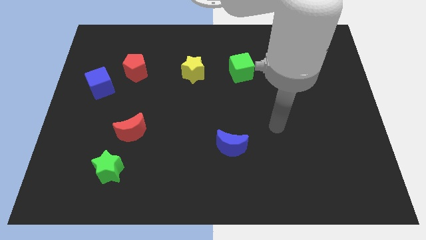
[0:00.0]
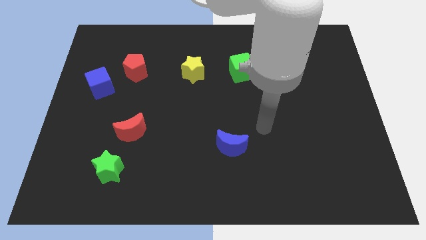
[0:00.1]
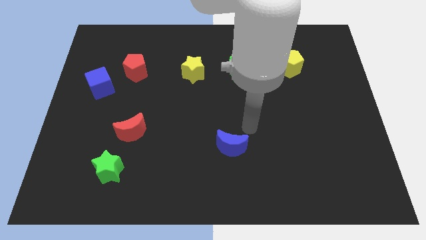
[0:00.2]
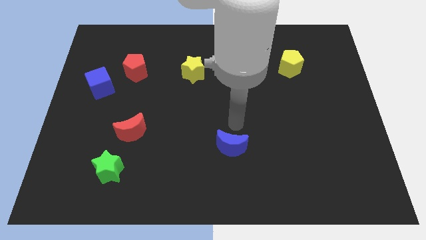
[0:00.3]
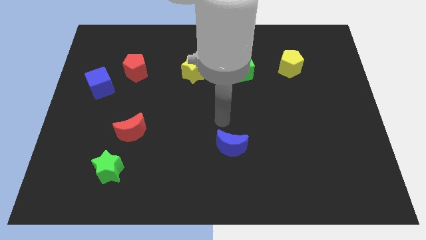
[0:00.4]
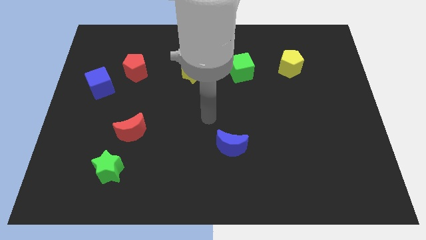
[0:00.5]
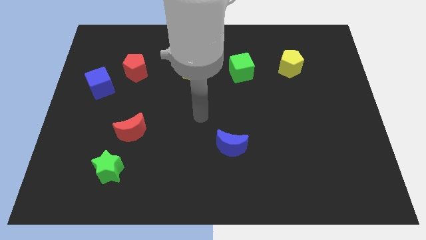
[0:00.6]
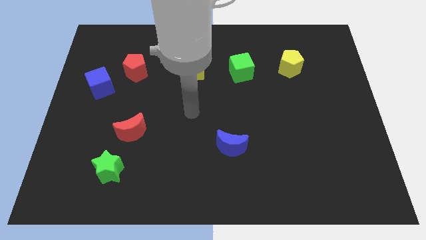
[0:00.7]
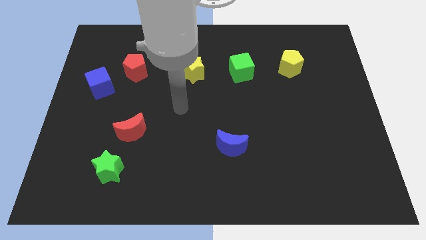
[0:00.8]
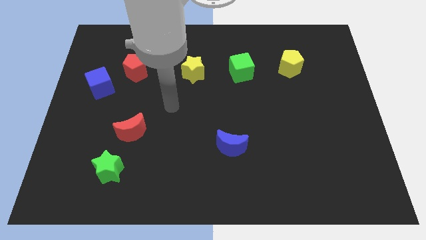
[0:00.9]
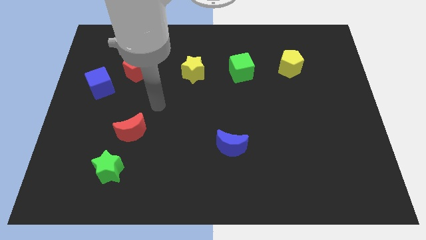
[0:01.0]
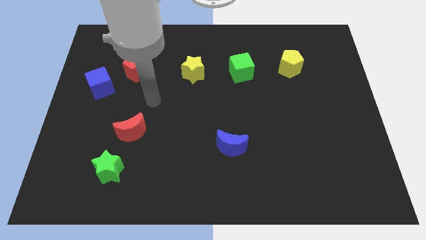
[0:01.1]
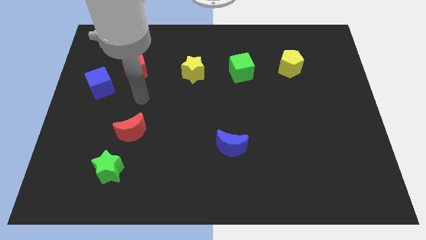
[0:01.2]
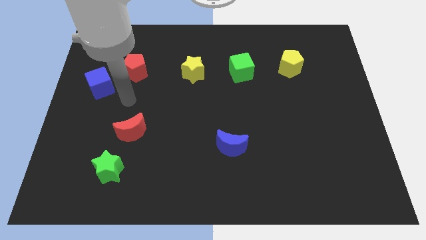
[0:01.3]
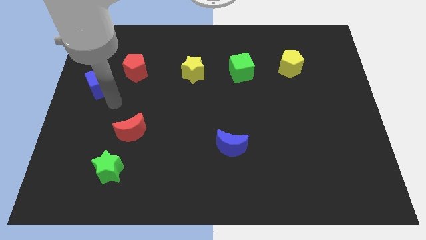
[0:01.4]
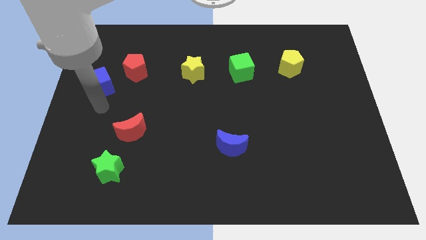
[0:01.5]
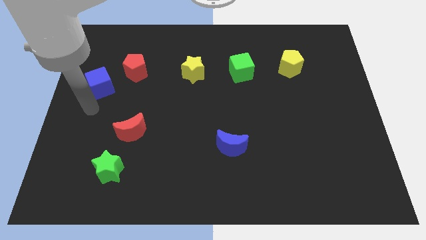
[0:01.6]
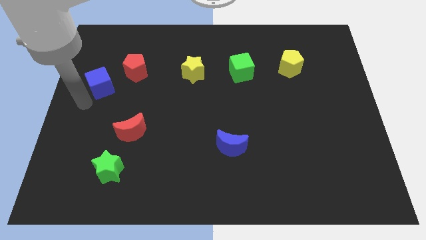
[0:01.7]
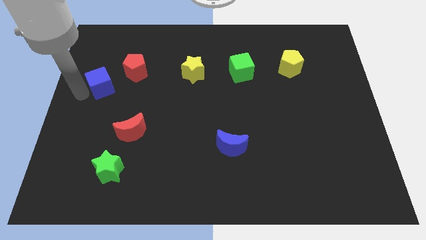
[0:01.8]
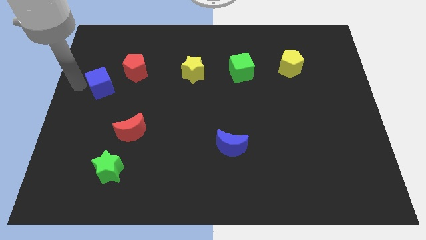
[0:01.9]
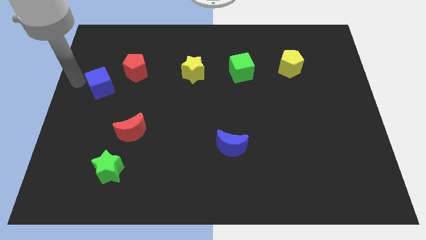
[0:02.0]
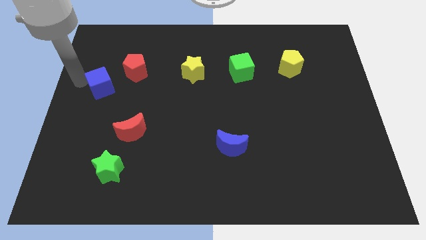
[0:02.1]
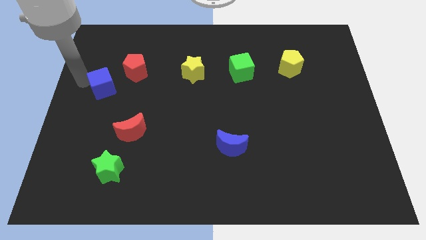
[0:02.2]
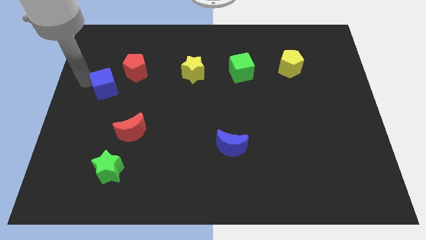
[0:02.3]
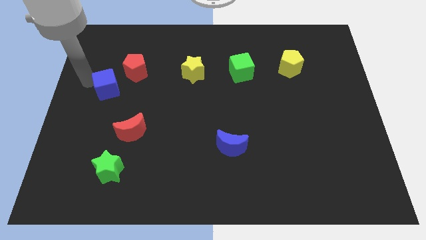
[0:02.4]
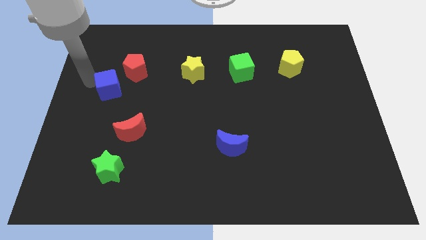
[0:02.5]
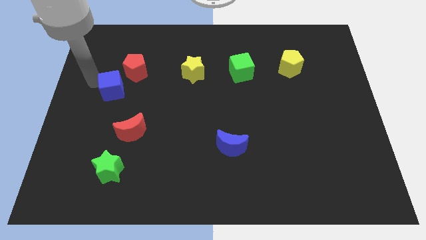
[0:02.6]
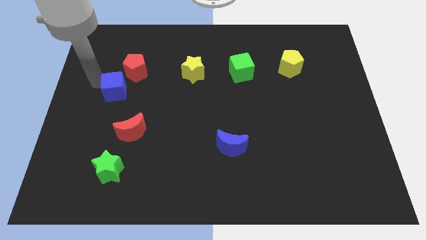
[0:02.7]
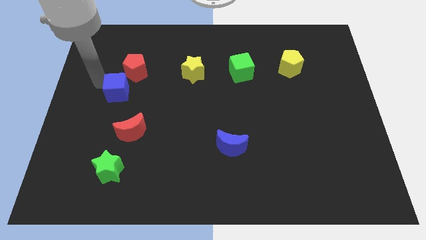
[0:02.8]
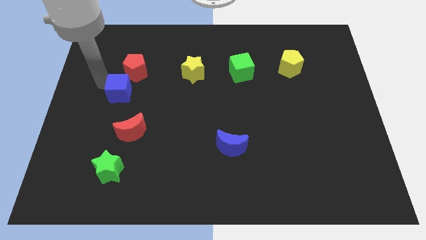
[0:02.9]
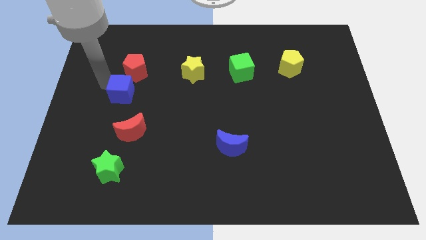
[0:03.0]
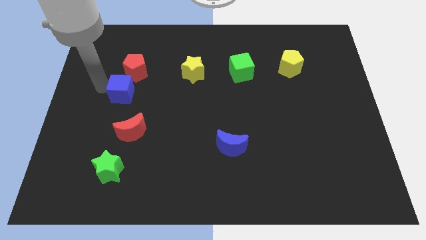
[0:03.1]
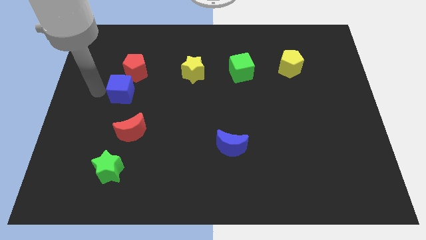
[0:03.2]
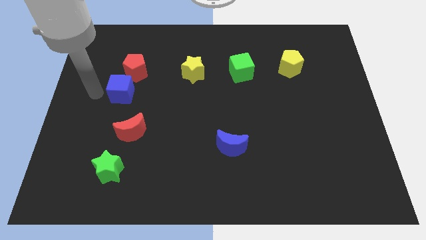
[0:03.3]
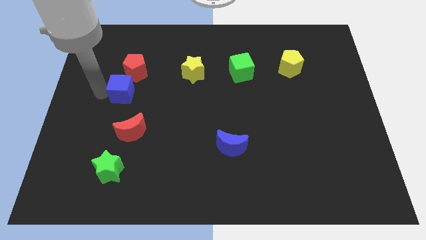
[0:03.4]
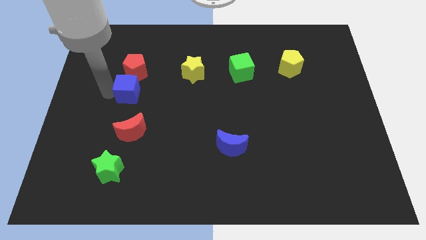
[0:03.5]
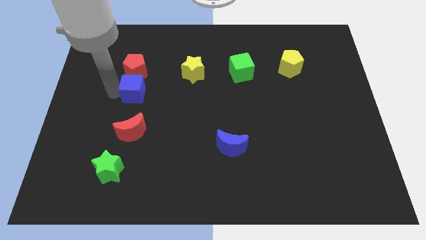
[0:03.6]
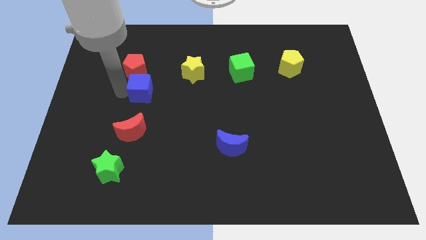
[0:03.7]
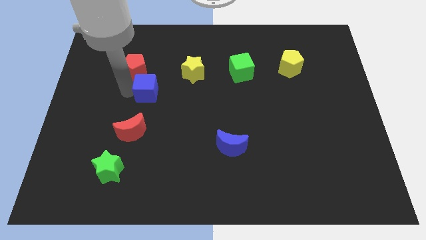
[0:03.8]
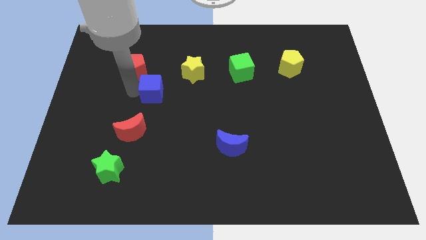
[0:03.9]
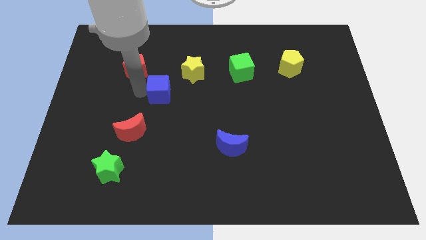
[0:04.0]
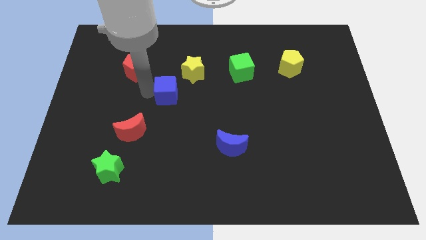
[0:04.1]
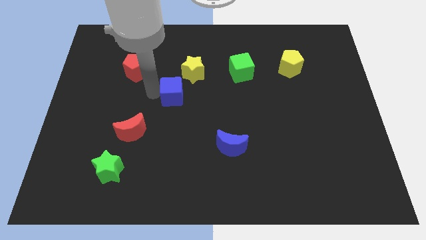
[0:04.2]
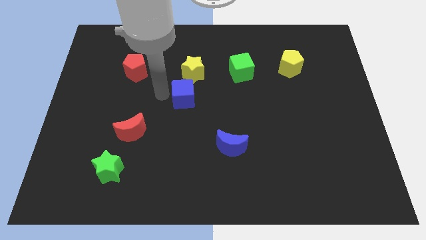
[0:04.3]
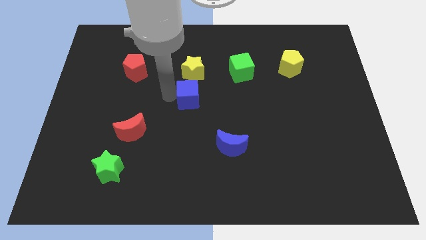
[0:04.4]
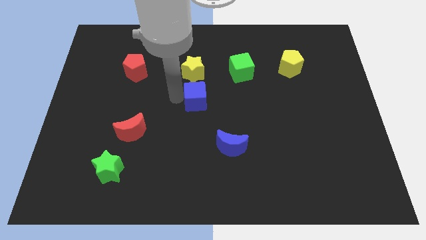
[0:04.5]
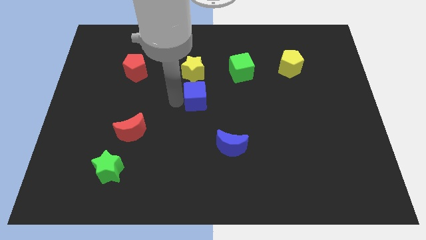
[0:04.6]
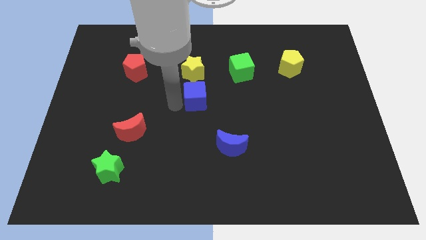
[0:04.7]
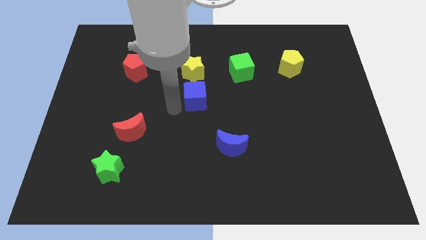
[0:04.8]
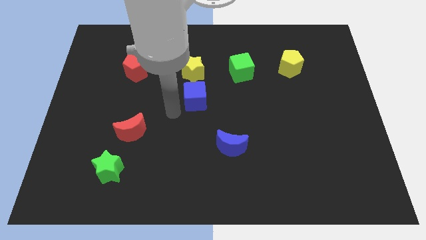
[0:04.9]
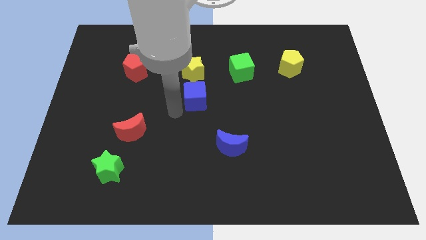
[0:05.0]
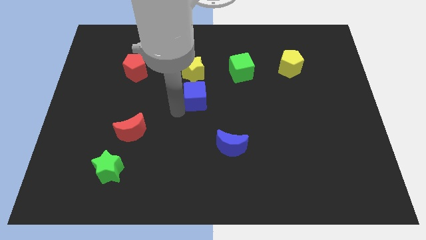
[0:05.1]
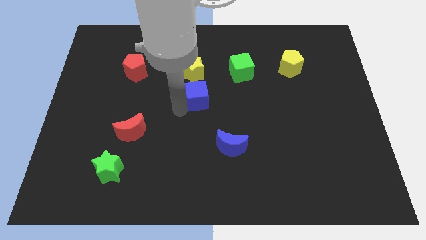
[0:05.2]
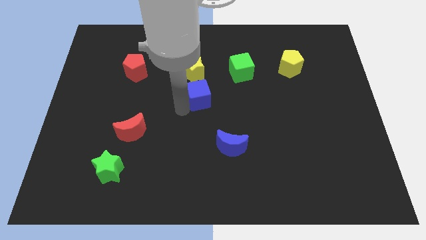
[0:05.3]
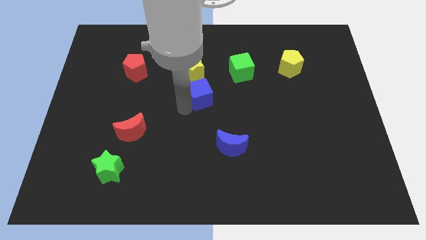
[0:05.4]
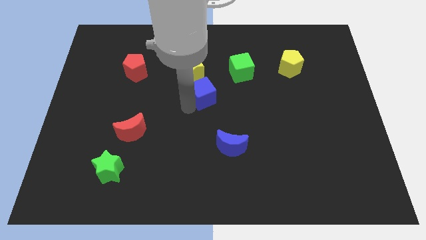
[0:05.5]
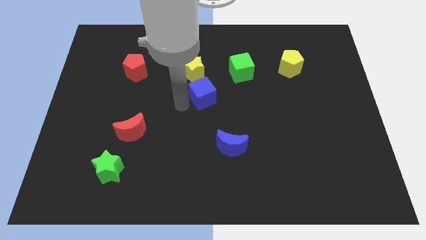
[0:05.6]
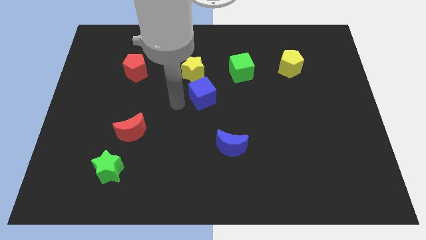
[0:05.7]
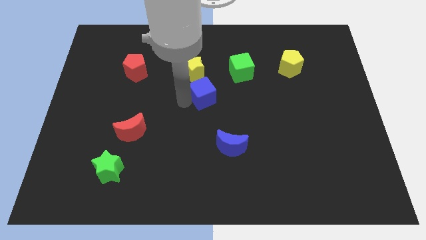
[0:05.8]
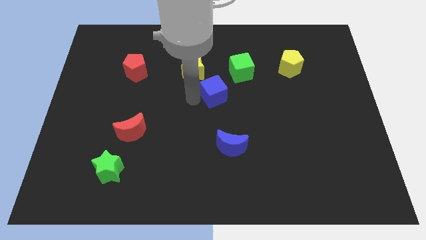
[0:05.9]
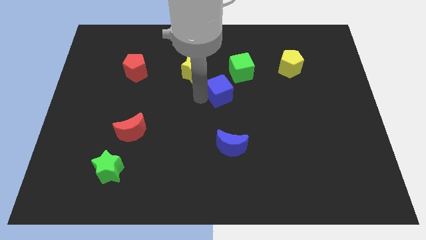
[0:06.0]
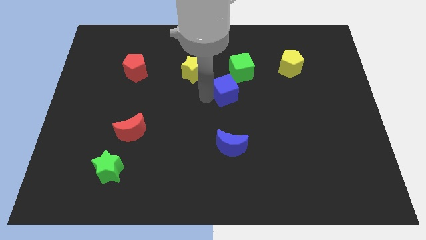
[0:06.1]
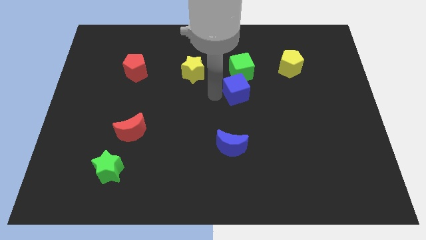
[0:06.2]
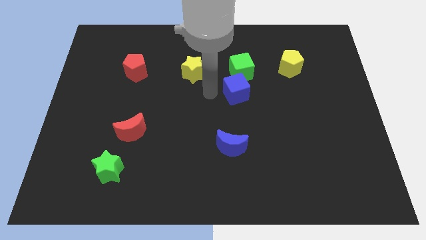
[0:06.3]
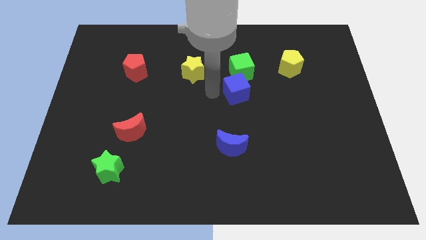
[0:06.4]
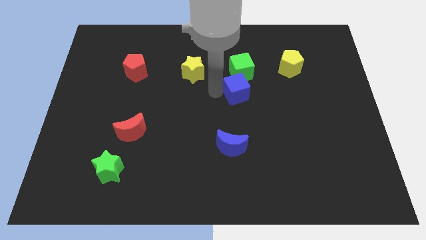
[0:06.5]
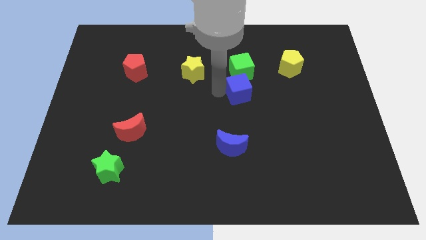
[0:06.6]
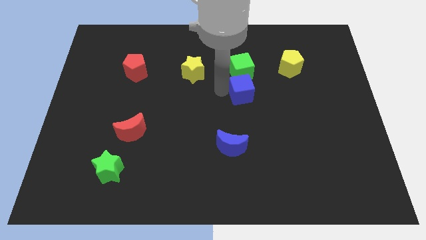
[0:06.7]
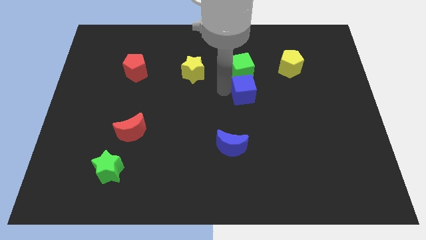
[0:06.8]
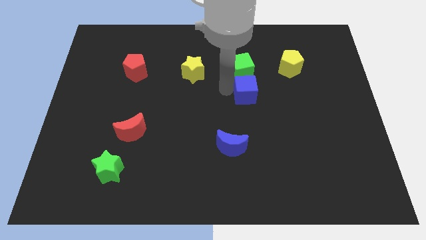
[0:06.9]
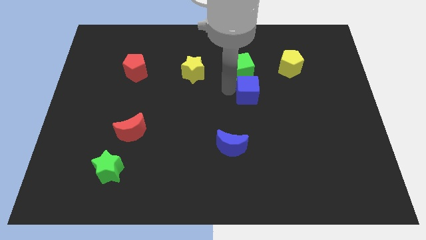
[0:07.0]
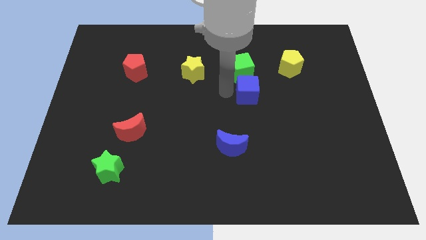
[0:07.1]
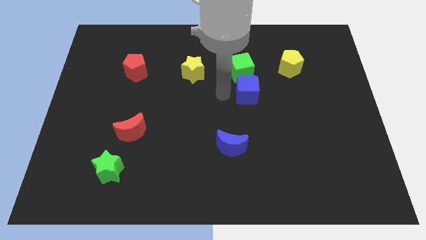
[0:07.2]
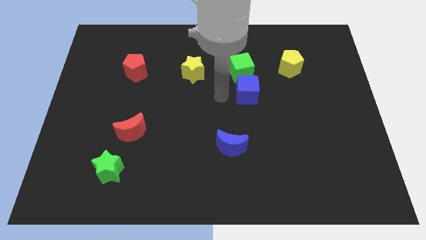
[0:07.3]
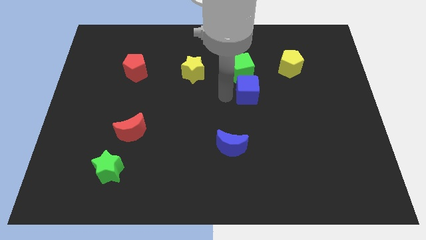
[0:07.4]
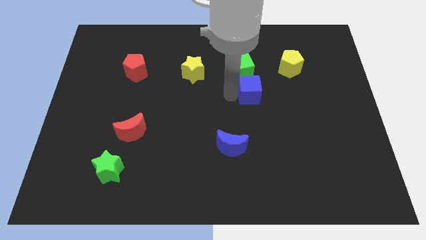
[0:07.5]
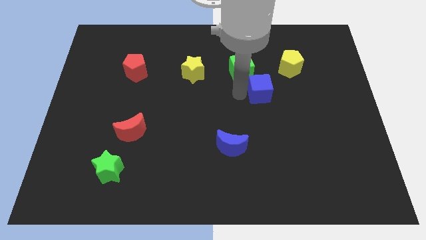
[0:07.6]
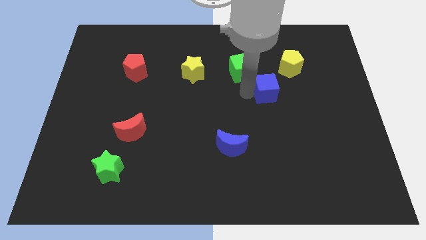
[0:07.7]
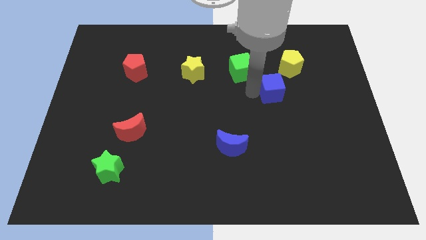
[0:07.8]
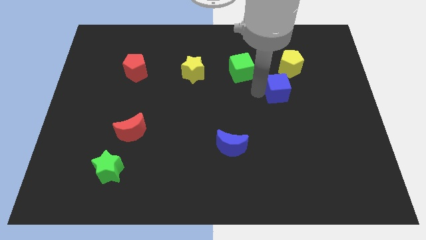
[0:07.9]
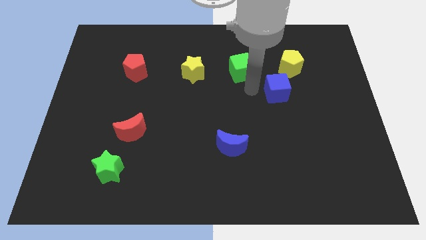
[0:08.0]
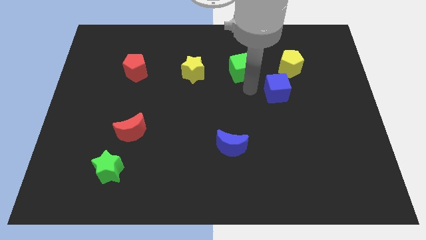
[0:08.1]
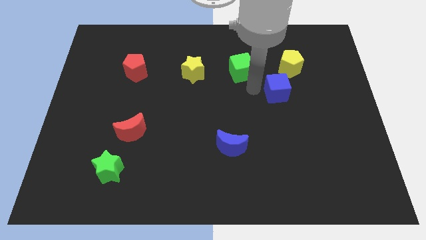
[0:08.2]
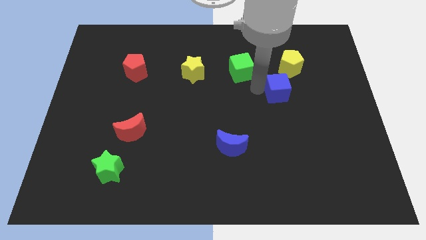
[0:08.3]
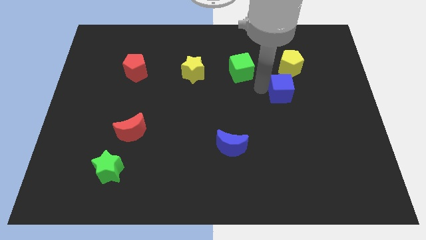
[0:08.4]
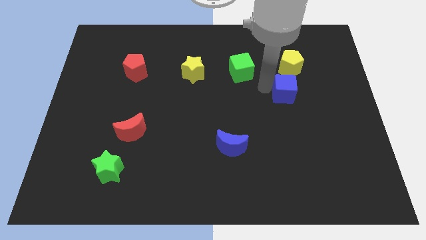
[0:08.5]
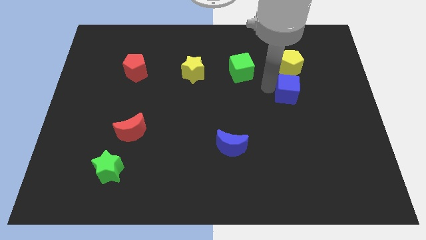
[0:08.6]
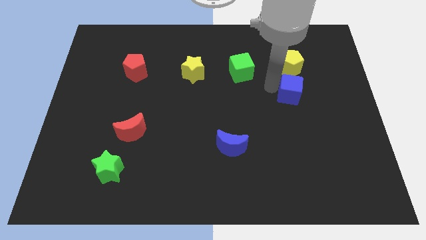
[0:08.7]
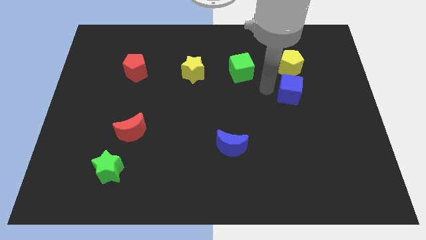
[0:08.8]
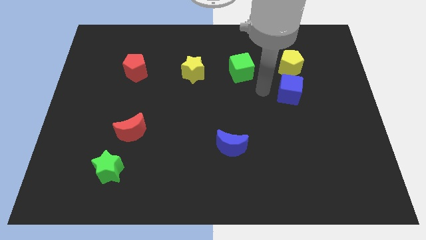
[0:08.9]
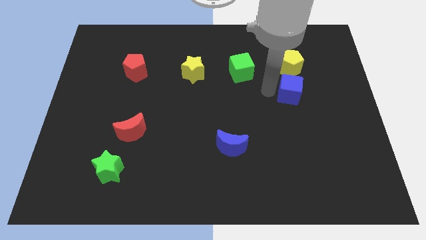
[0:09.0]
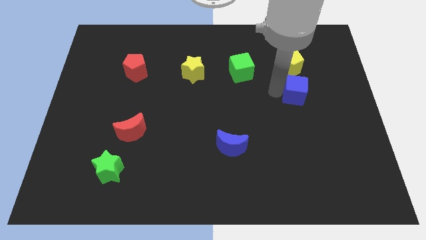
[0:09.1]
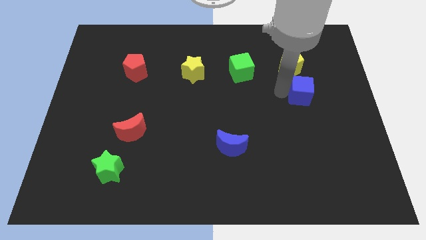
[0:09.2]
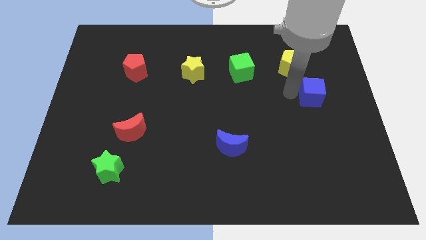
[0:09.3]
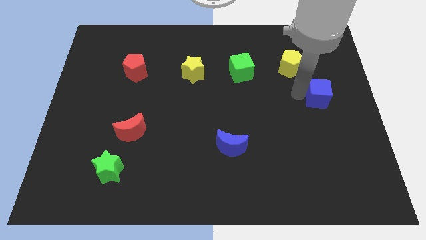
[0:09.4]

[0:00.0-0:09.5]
put the blue cube to the right side
